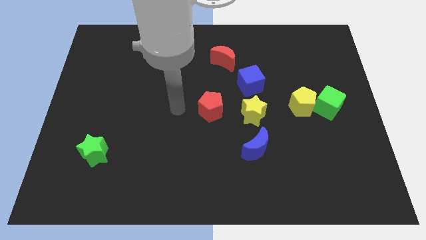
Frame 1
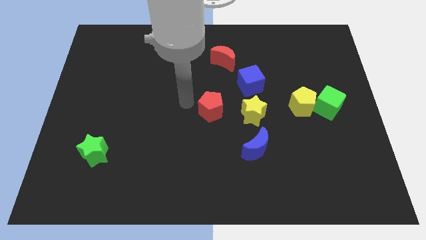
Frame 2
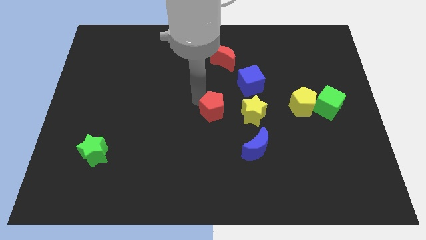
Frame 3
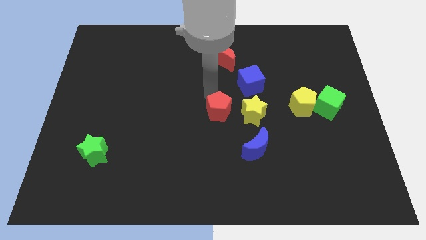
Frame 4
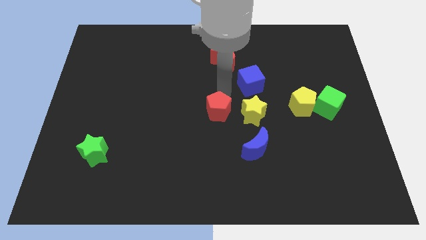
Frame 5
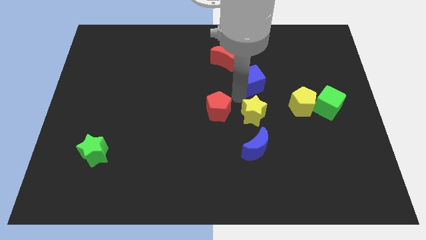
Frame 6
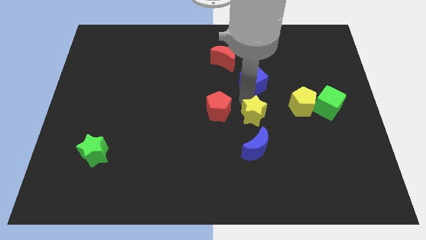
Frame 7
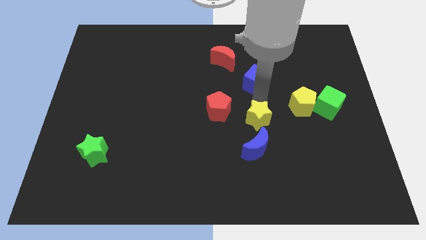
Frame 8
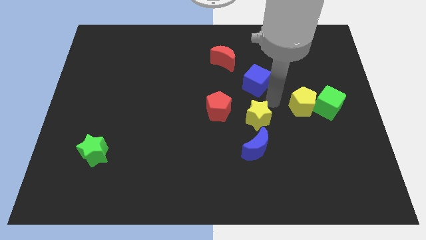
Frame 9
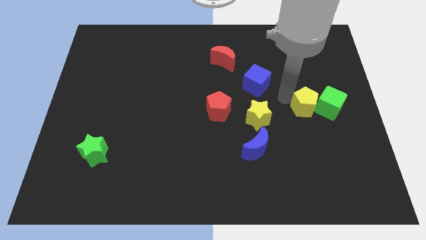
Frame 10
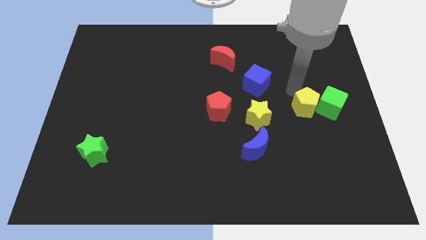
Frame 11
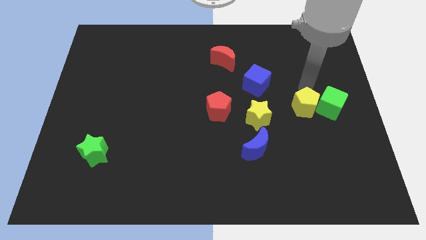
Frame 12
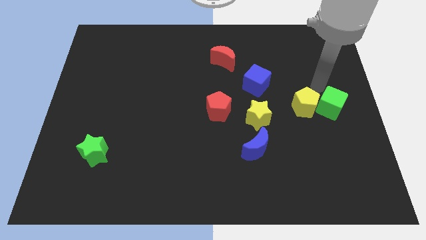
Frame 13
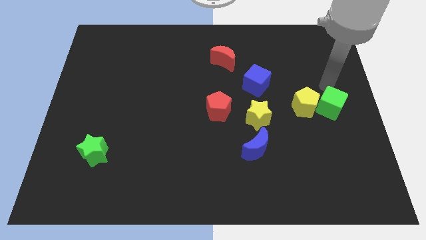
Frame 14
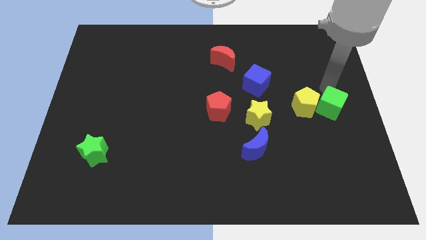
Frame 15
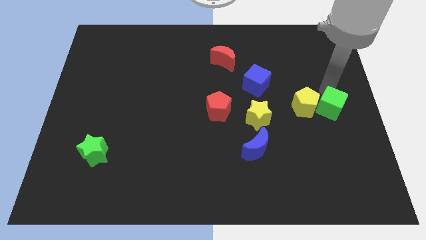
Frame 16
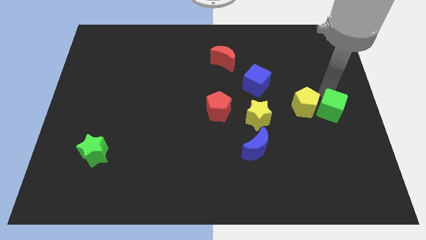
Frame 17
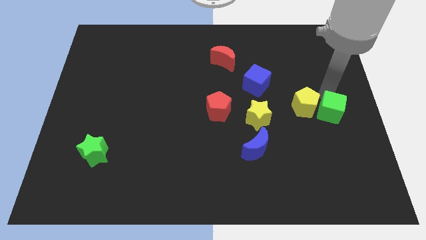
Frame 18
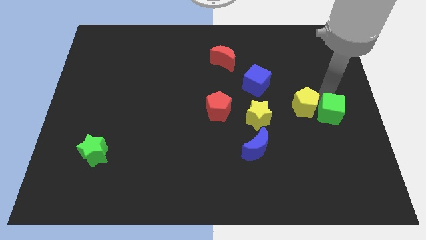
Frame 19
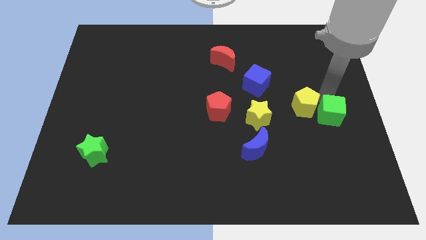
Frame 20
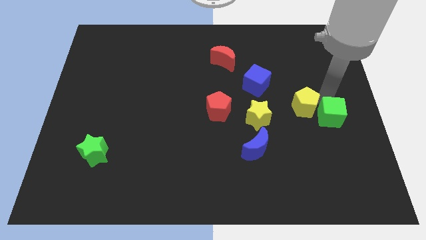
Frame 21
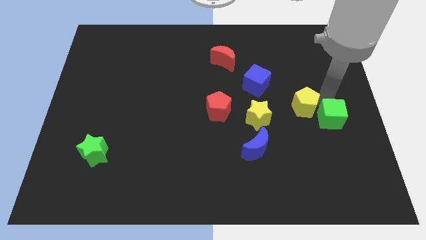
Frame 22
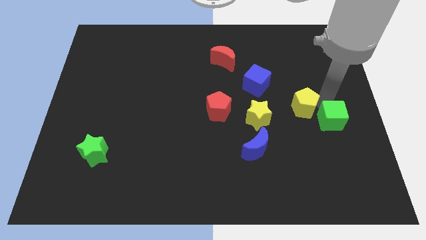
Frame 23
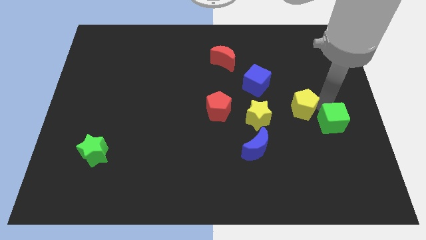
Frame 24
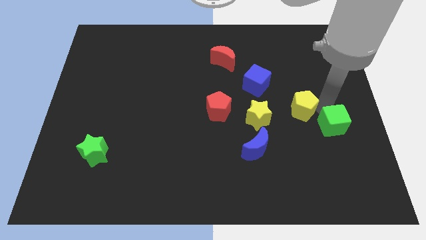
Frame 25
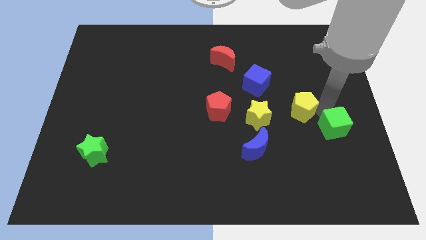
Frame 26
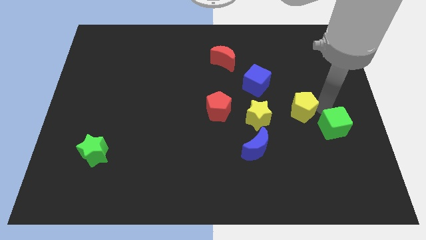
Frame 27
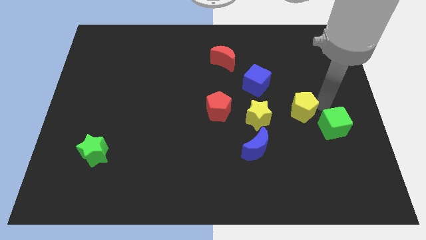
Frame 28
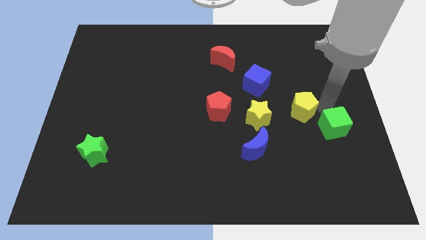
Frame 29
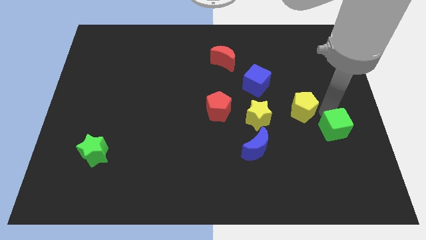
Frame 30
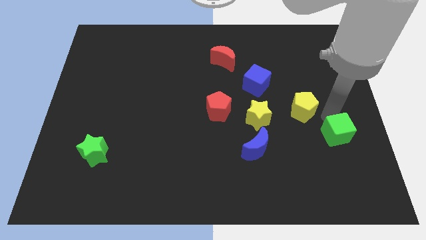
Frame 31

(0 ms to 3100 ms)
slightly slide the green cube down

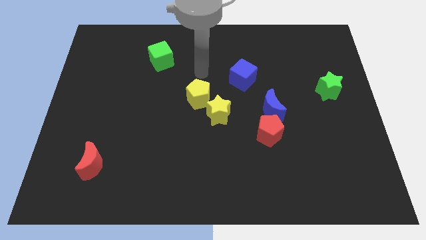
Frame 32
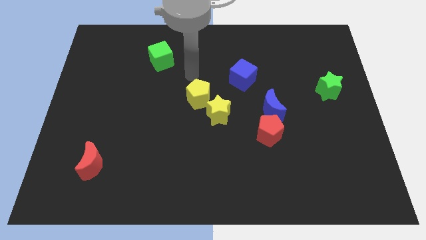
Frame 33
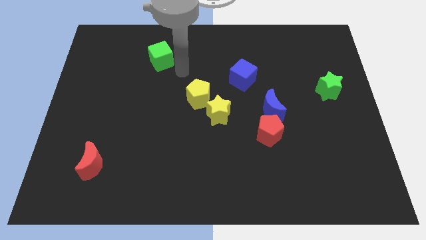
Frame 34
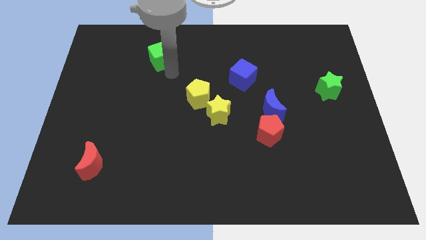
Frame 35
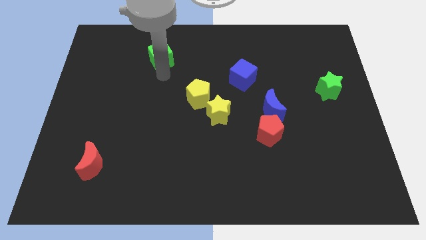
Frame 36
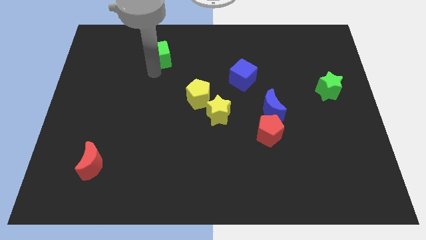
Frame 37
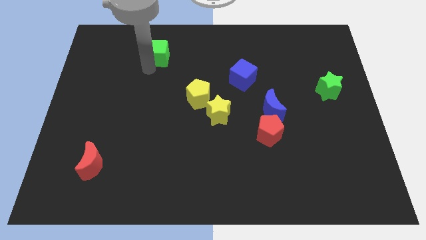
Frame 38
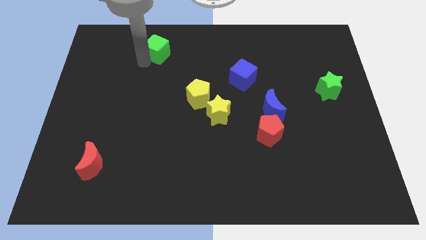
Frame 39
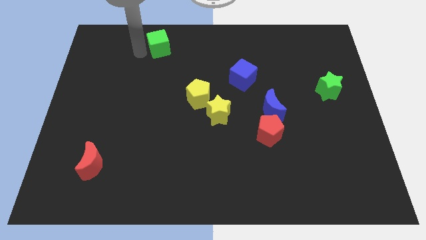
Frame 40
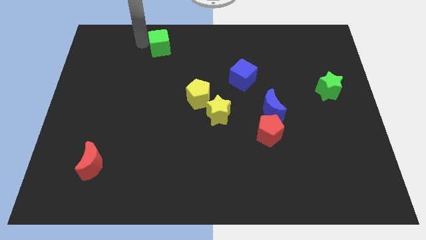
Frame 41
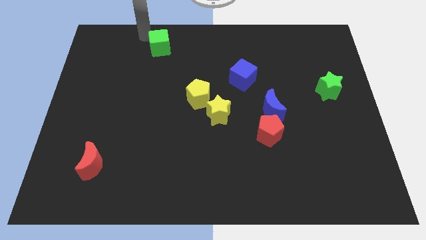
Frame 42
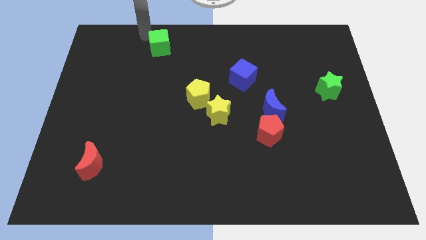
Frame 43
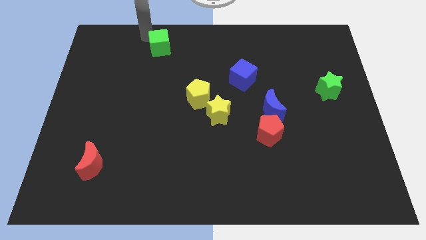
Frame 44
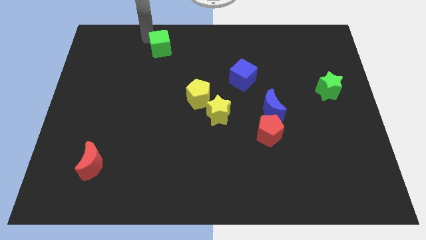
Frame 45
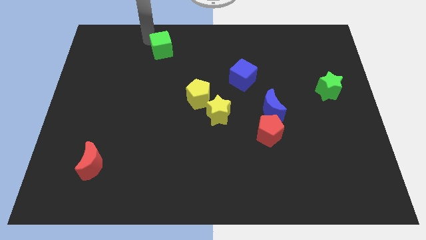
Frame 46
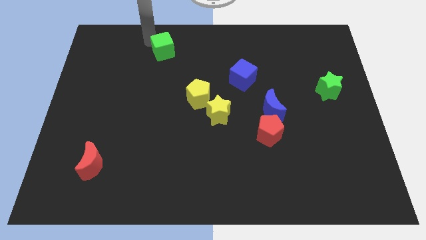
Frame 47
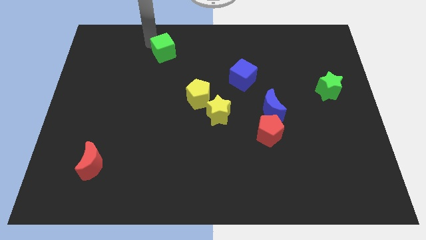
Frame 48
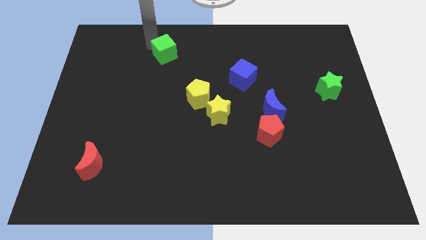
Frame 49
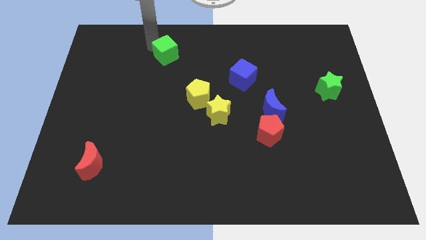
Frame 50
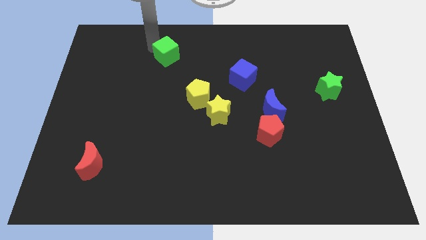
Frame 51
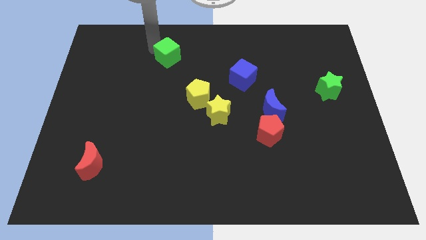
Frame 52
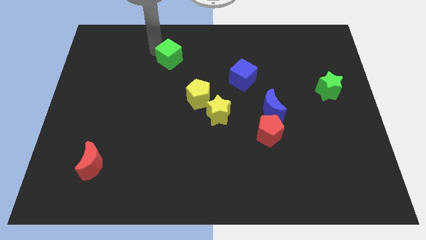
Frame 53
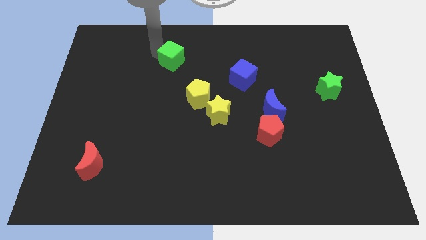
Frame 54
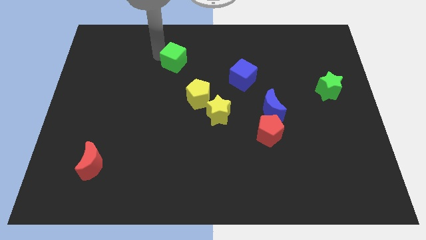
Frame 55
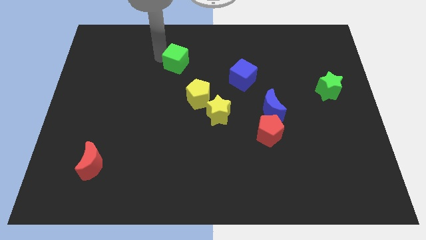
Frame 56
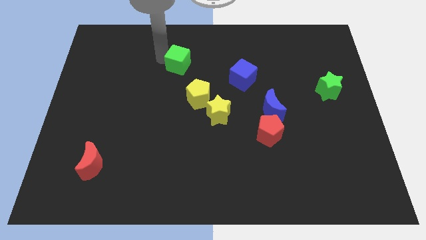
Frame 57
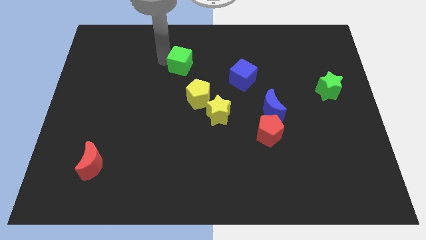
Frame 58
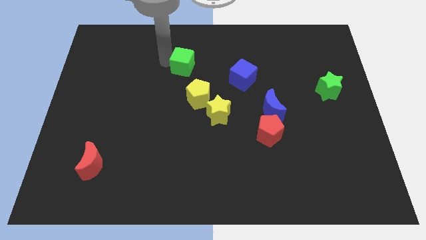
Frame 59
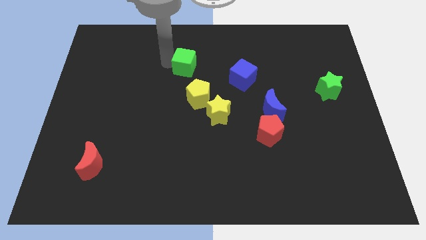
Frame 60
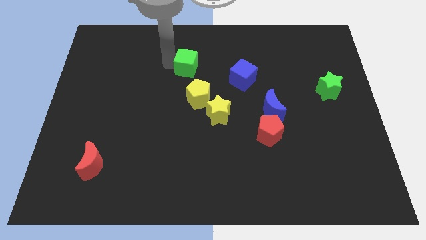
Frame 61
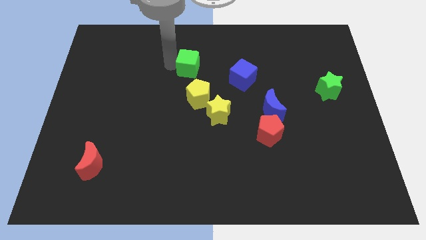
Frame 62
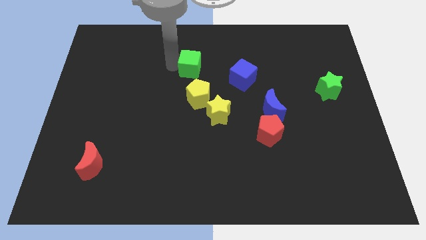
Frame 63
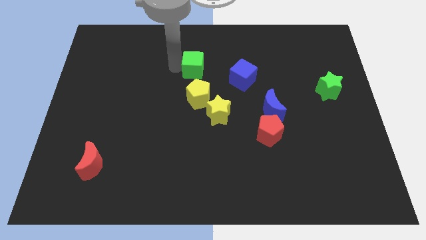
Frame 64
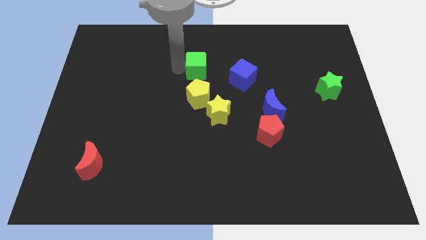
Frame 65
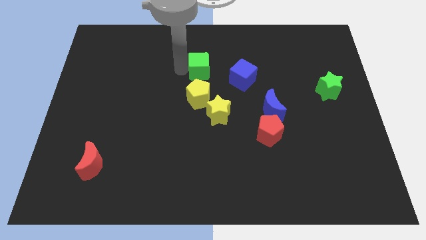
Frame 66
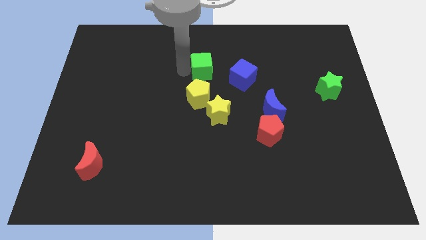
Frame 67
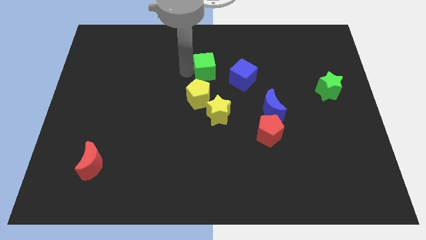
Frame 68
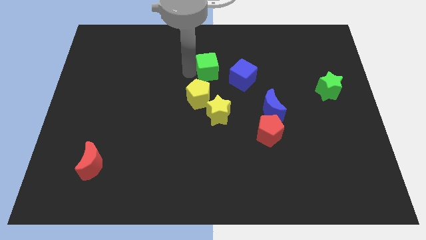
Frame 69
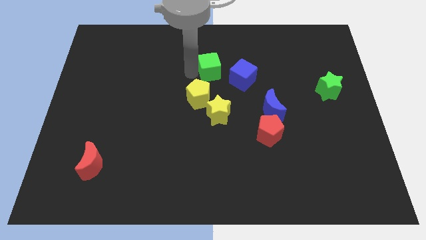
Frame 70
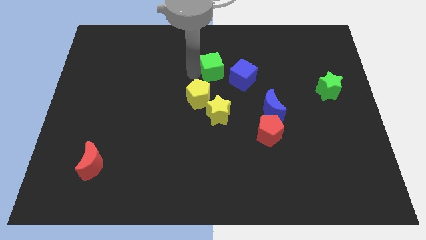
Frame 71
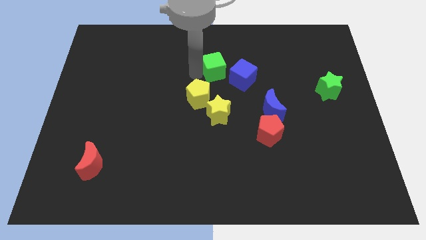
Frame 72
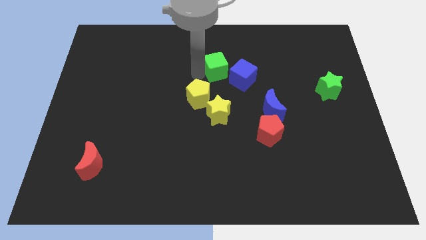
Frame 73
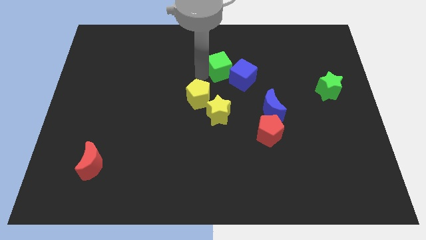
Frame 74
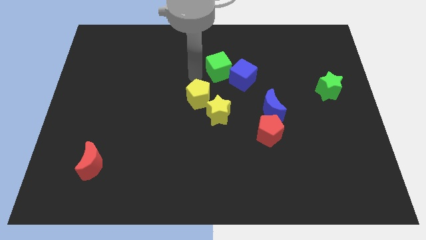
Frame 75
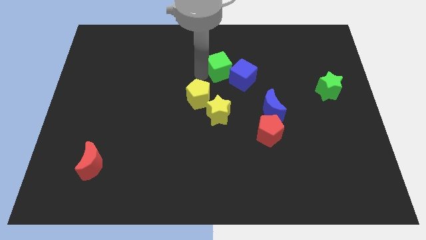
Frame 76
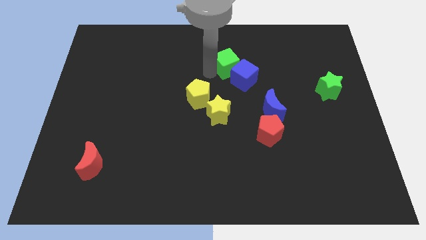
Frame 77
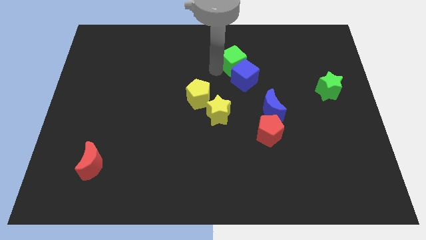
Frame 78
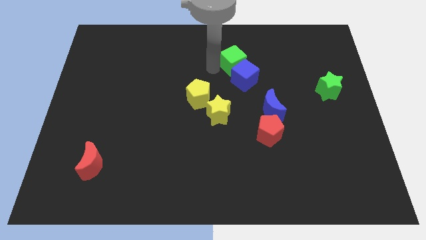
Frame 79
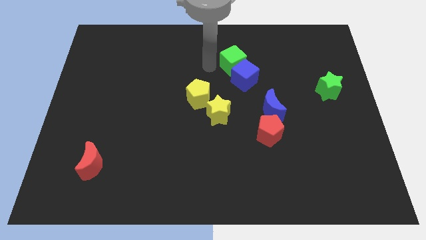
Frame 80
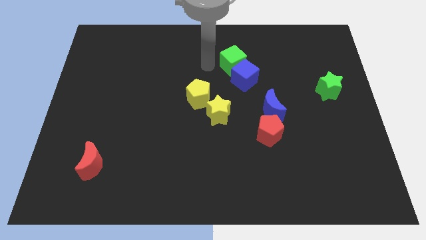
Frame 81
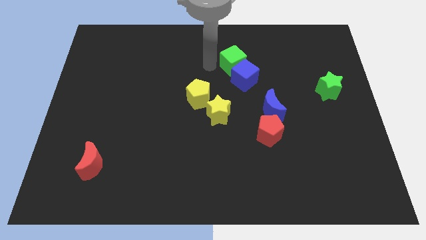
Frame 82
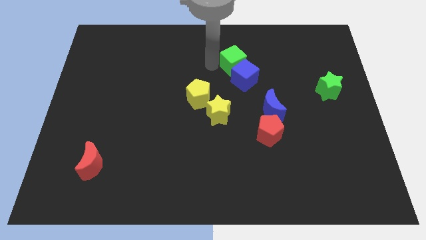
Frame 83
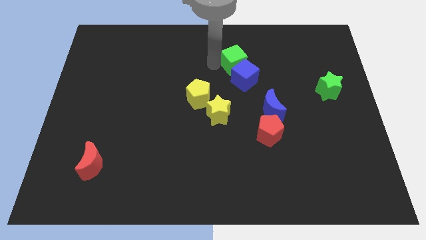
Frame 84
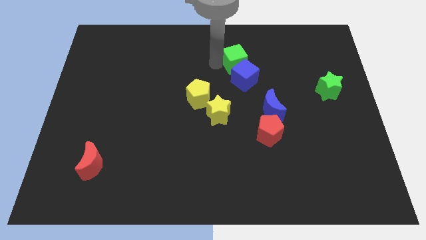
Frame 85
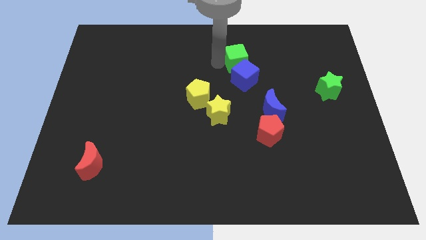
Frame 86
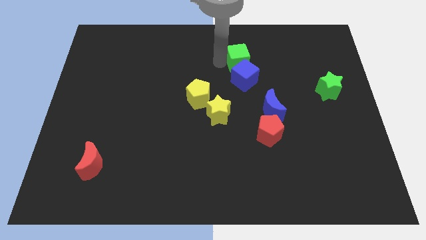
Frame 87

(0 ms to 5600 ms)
move the green cube right
